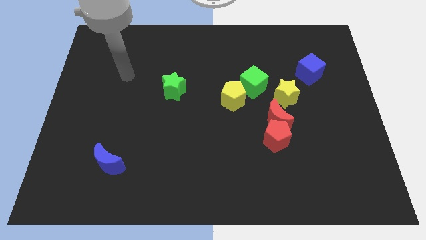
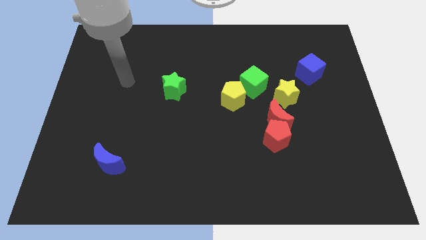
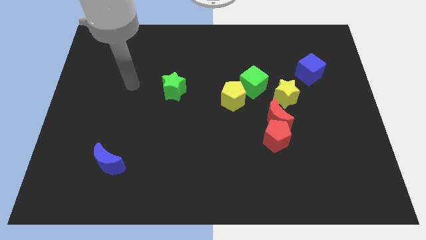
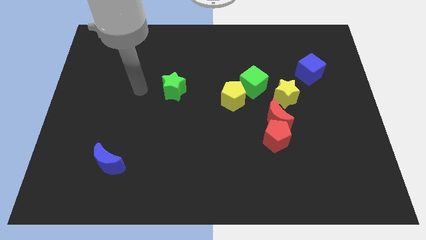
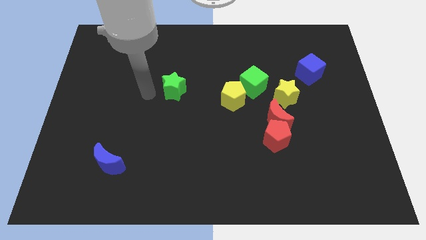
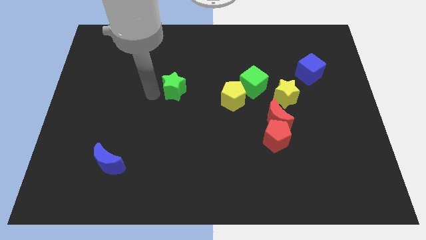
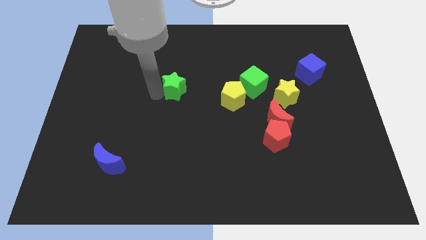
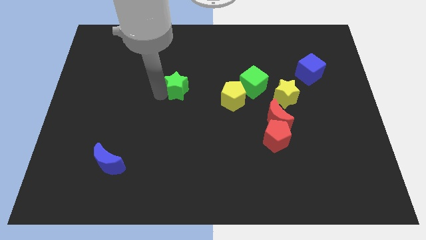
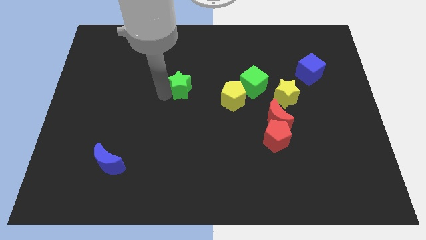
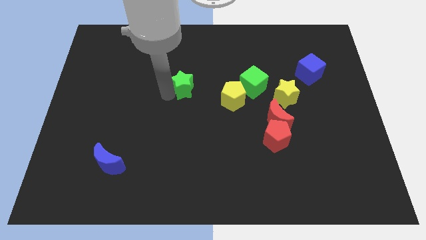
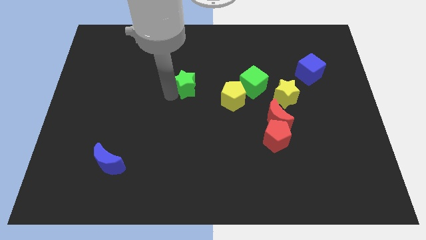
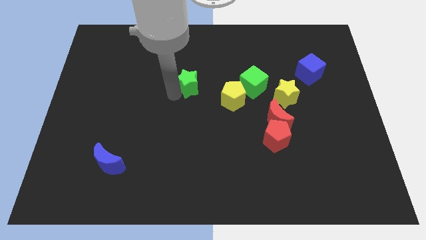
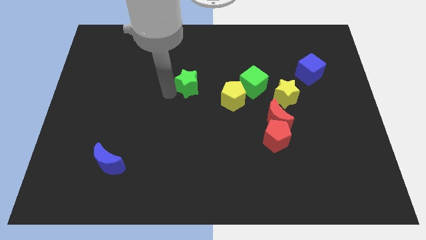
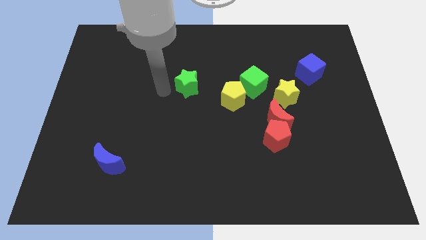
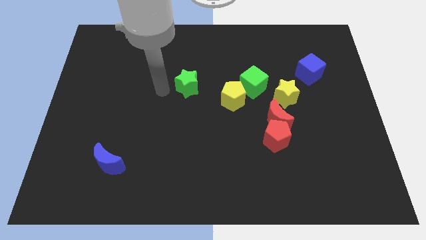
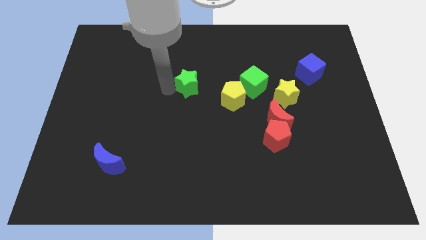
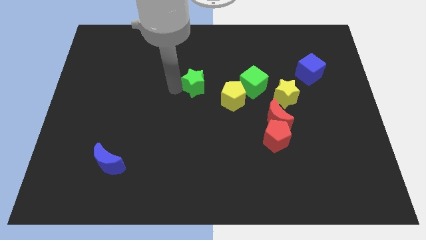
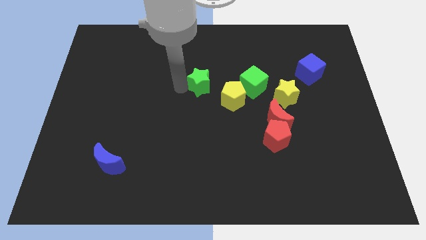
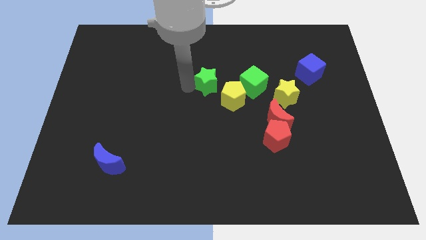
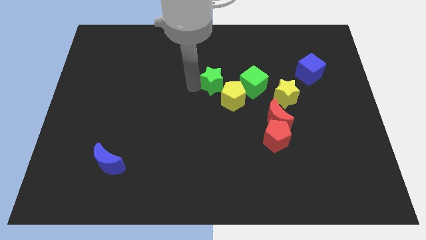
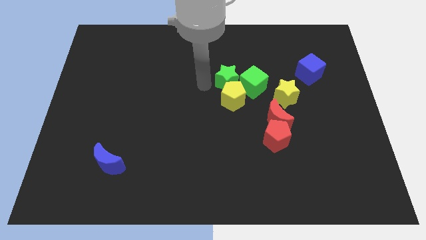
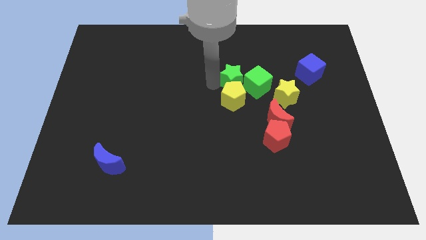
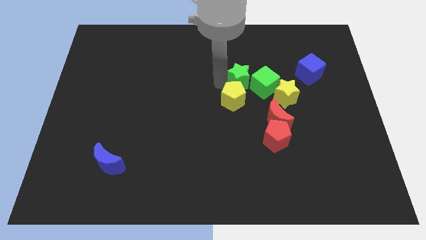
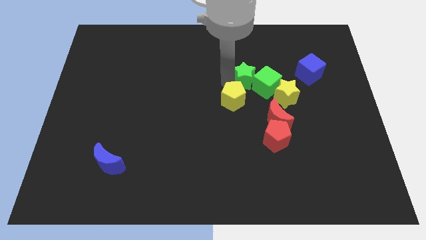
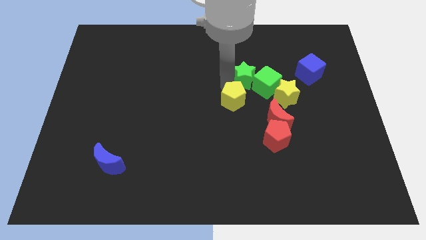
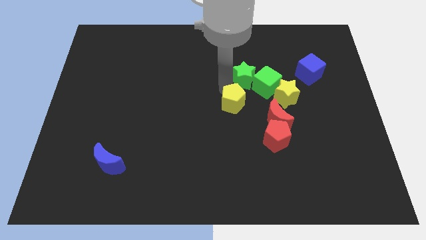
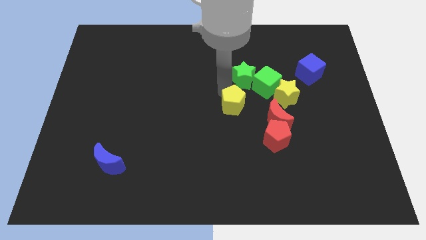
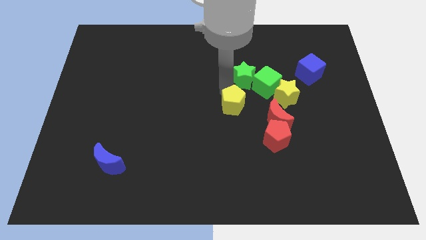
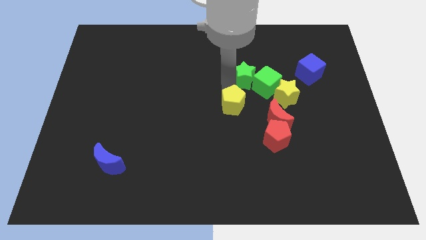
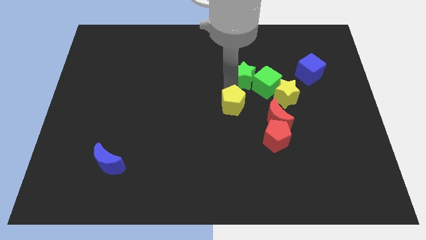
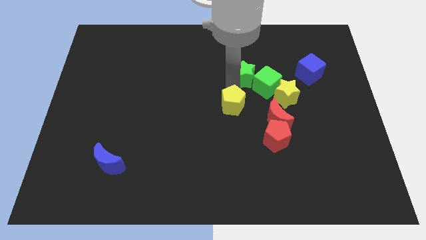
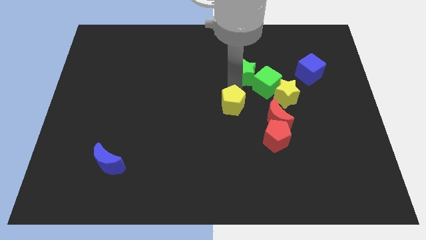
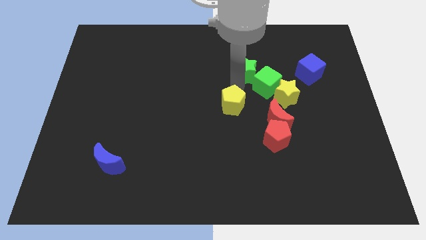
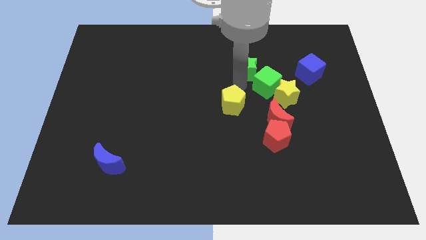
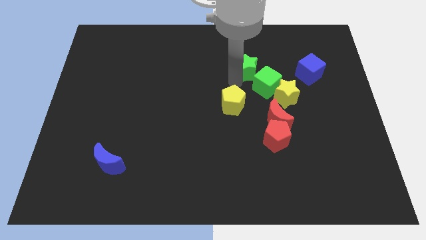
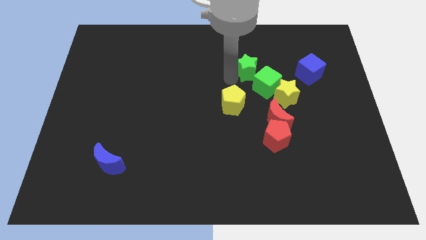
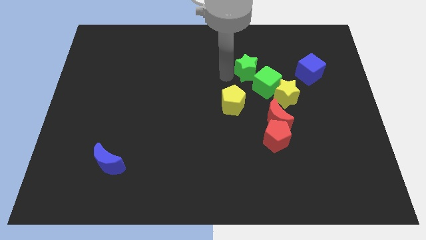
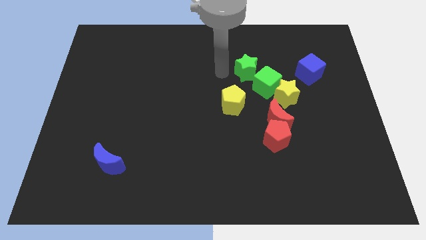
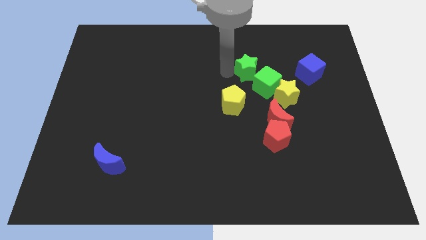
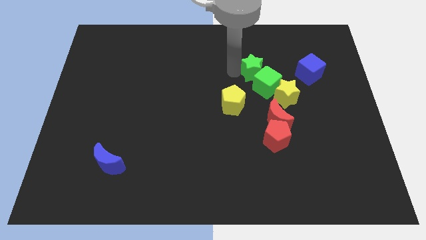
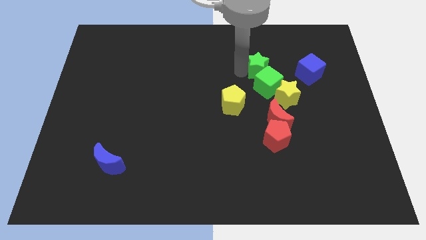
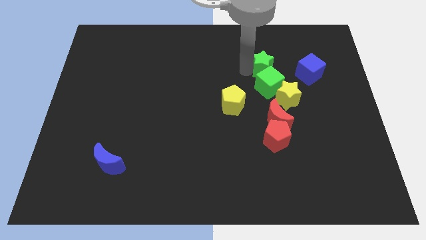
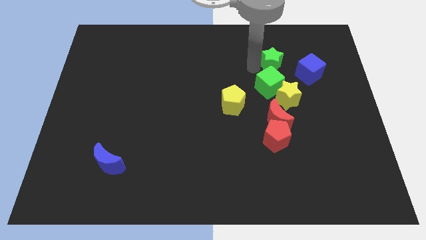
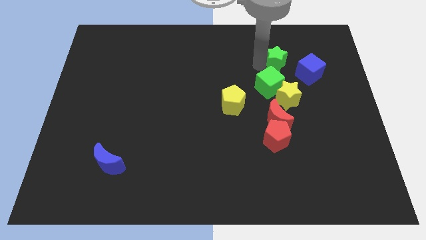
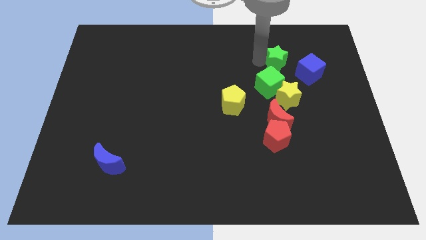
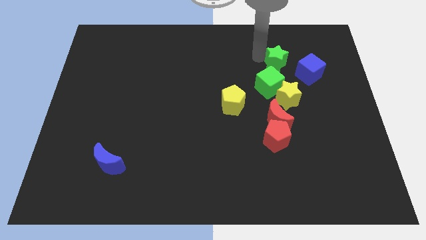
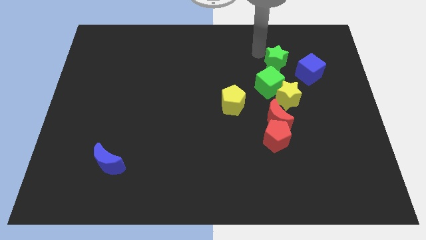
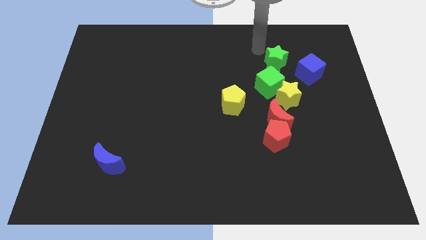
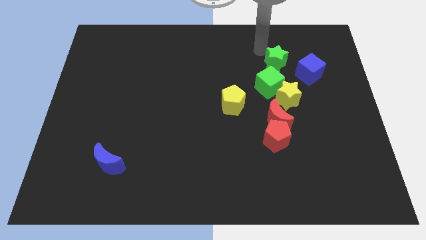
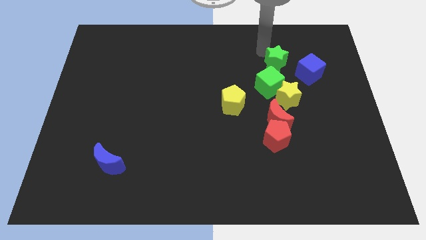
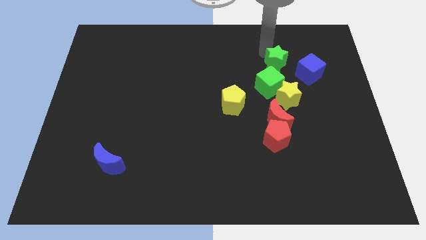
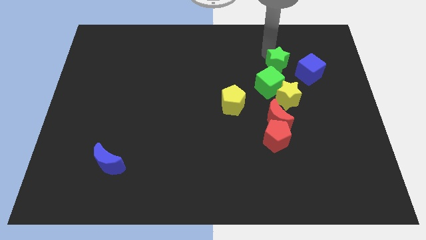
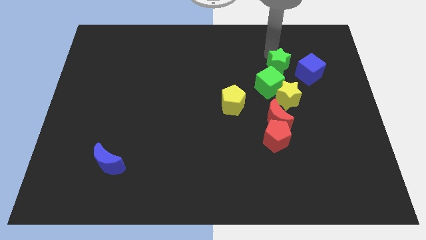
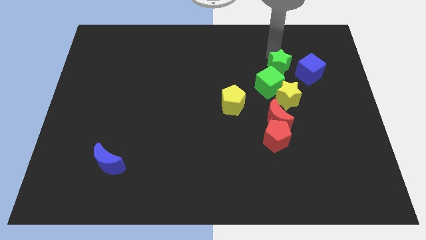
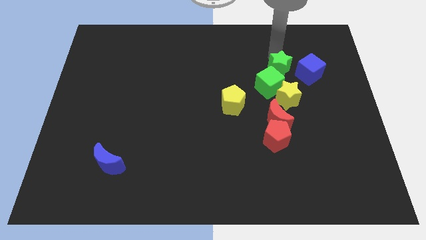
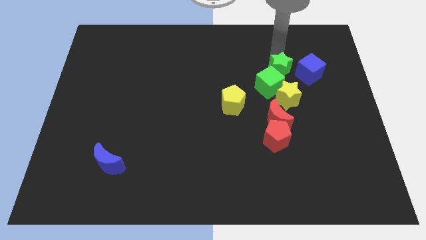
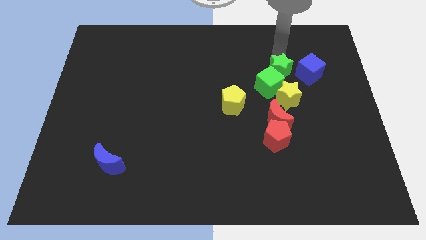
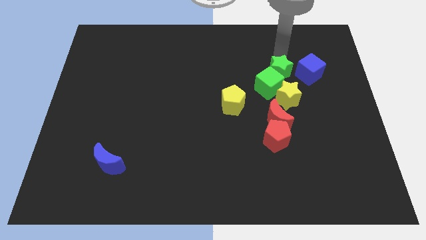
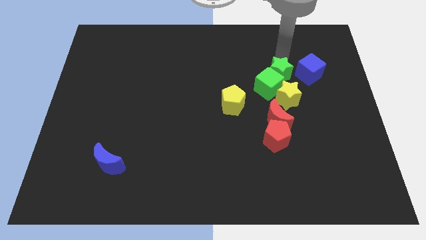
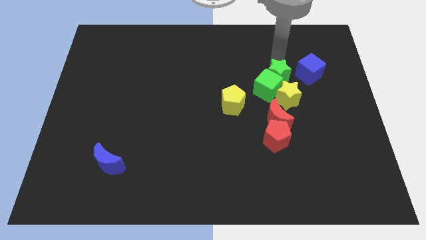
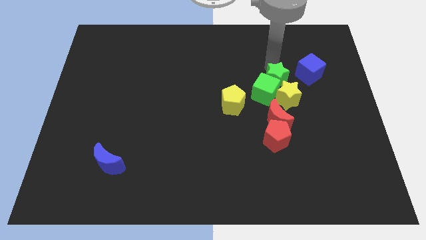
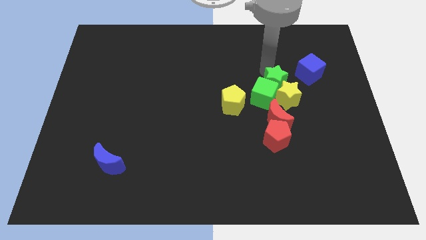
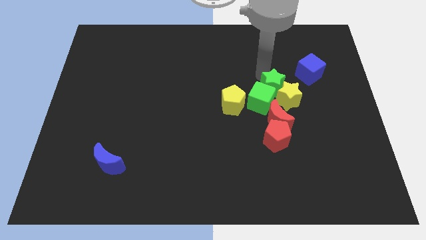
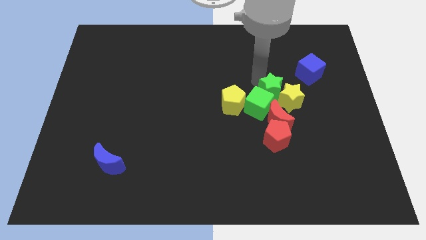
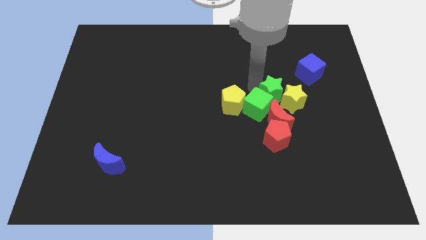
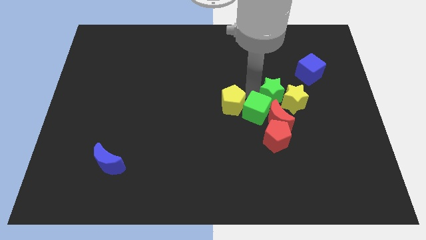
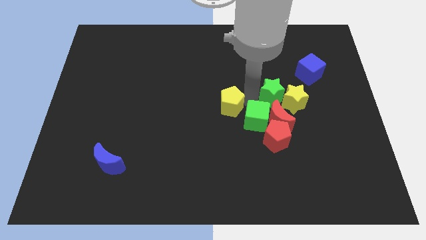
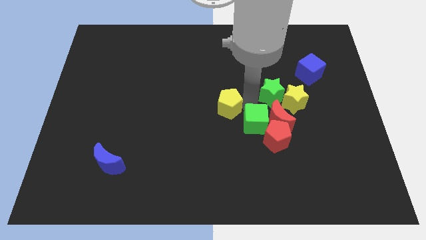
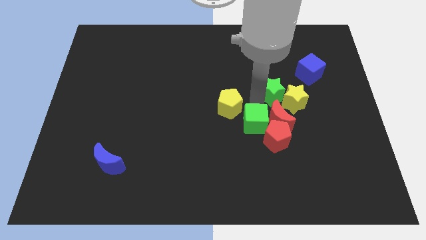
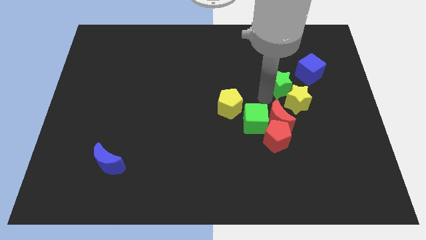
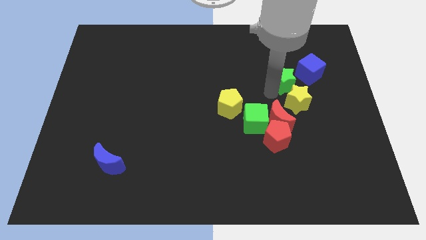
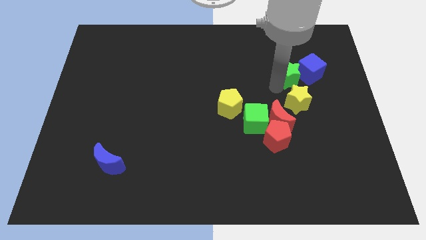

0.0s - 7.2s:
put the green star close to the blue cube
